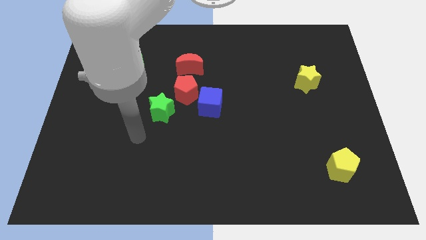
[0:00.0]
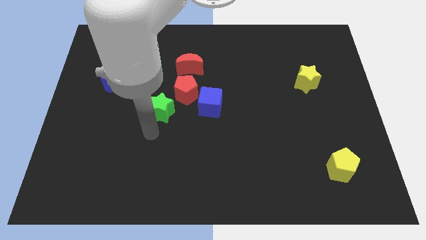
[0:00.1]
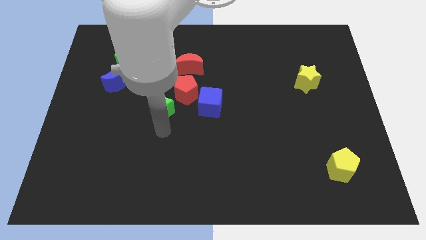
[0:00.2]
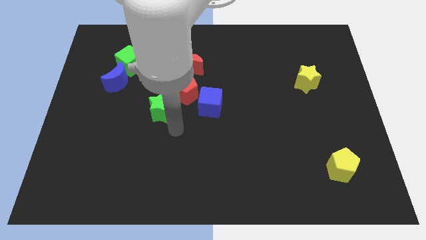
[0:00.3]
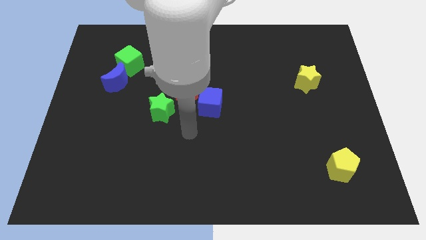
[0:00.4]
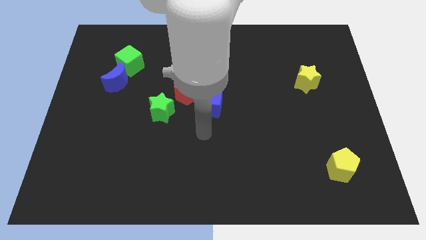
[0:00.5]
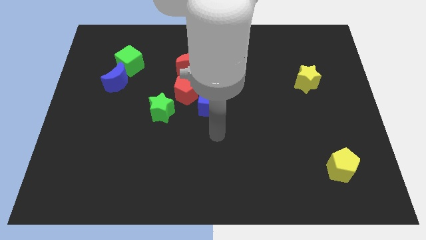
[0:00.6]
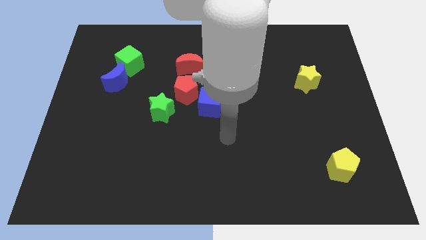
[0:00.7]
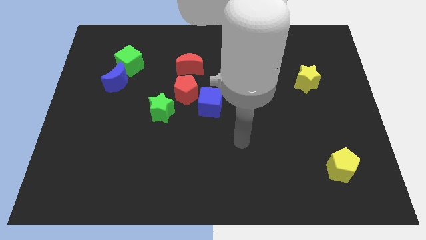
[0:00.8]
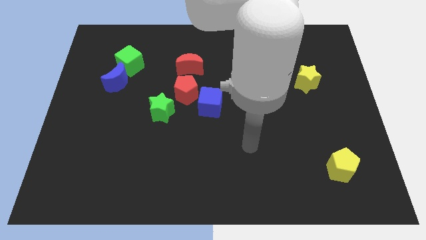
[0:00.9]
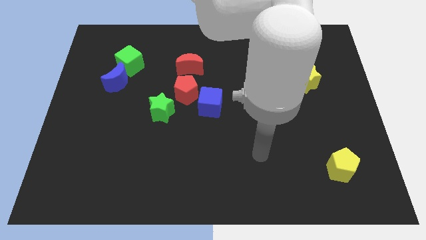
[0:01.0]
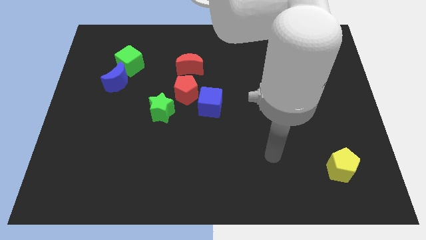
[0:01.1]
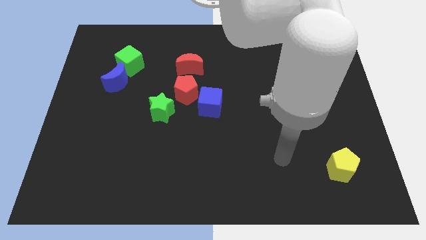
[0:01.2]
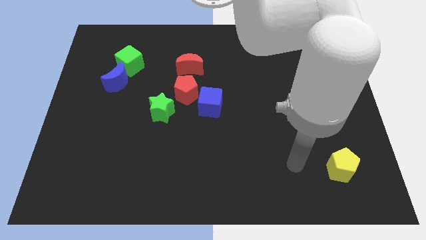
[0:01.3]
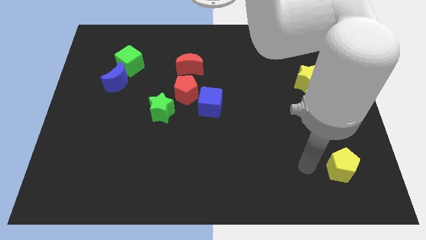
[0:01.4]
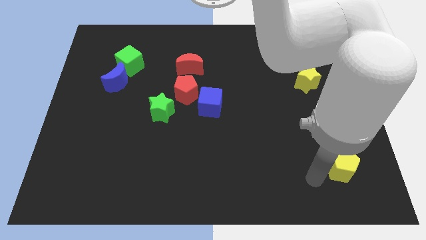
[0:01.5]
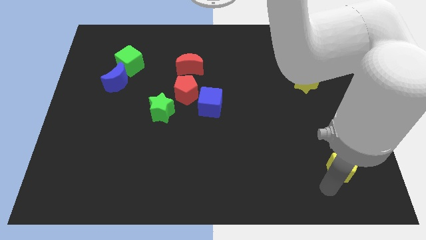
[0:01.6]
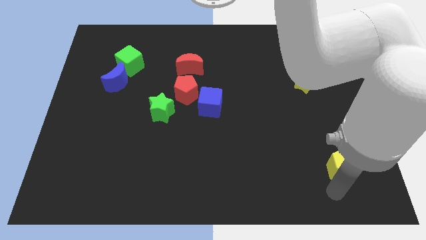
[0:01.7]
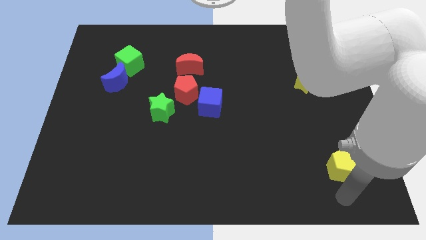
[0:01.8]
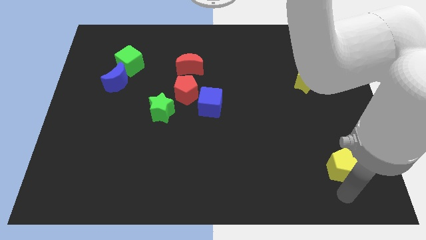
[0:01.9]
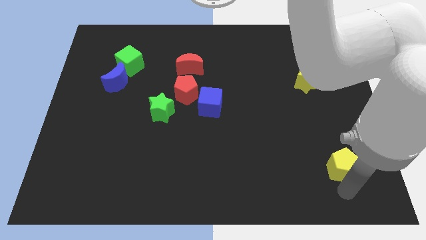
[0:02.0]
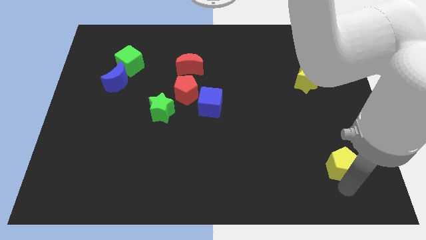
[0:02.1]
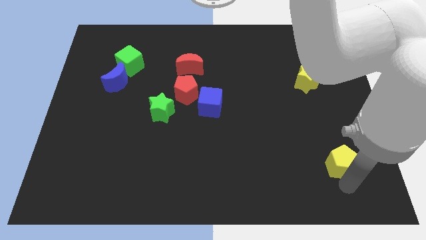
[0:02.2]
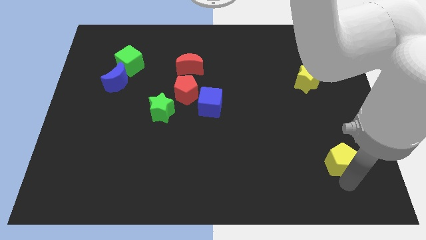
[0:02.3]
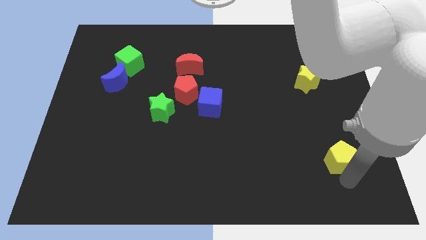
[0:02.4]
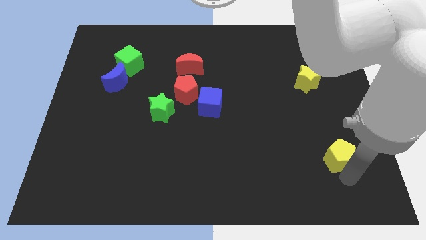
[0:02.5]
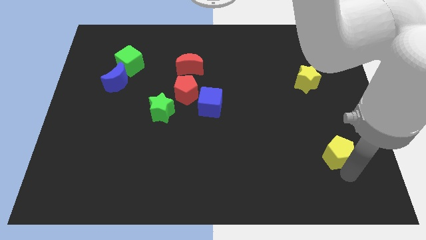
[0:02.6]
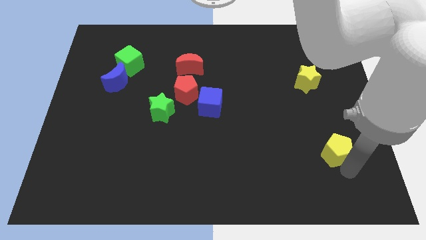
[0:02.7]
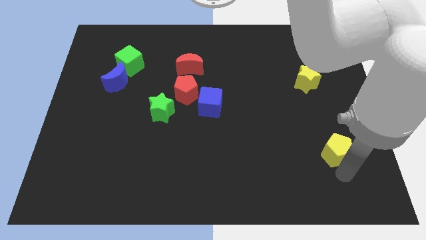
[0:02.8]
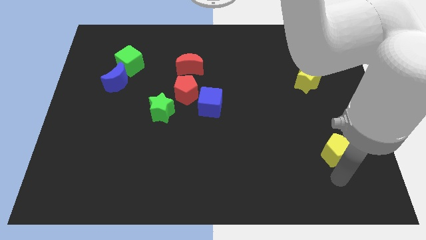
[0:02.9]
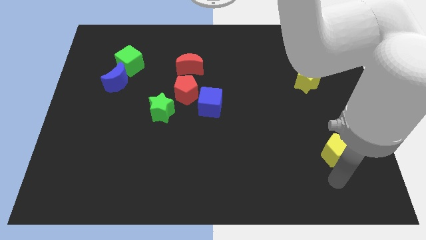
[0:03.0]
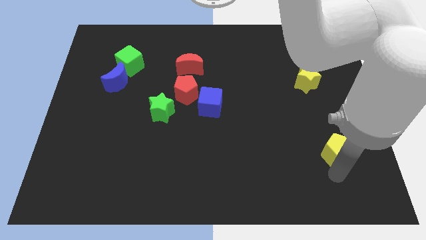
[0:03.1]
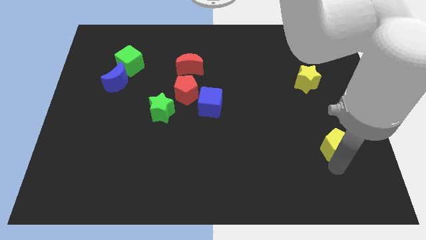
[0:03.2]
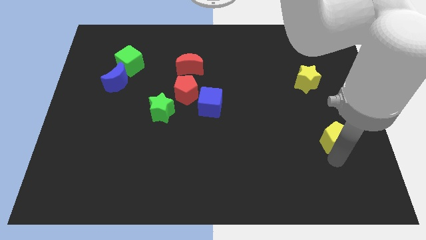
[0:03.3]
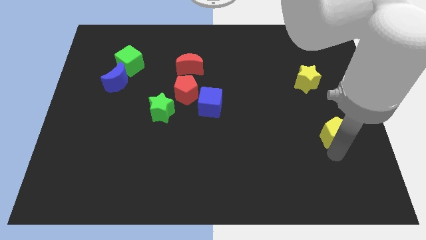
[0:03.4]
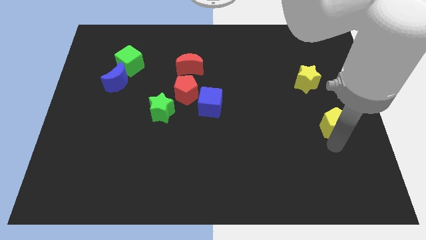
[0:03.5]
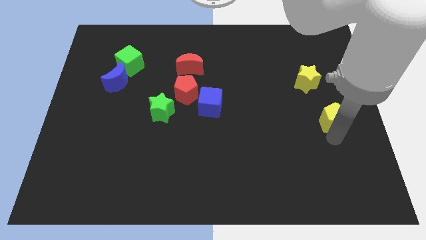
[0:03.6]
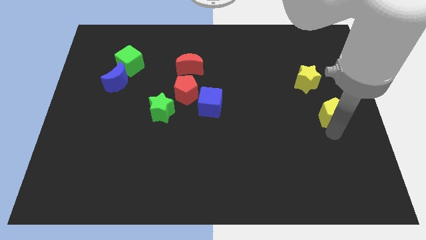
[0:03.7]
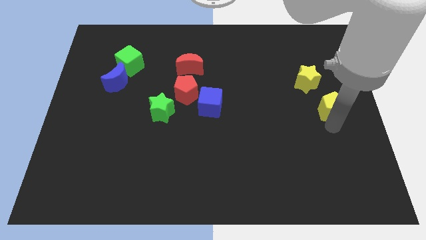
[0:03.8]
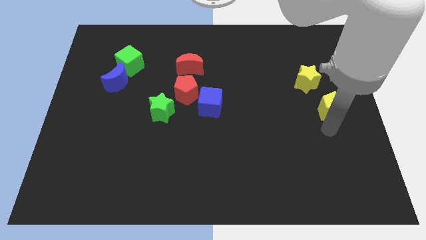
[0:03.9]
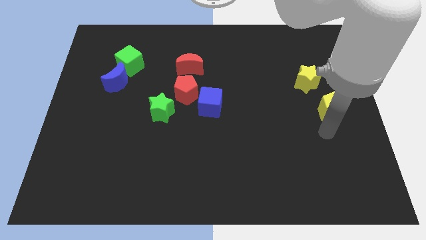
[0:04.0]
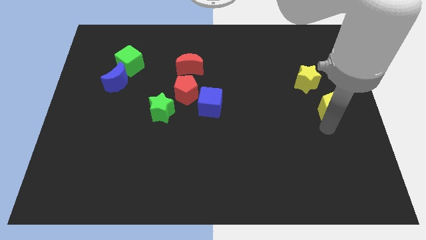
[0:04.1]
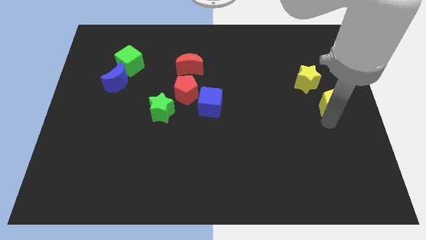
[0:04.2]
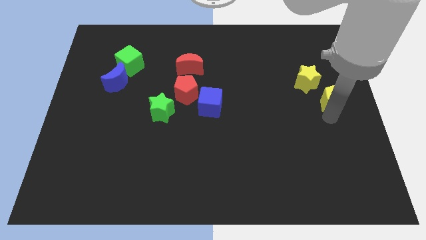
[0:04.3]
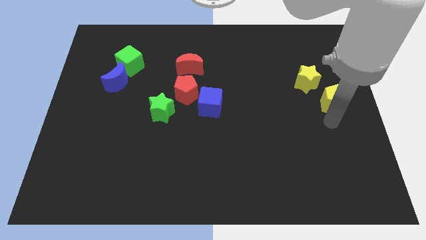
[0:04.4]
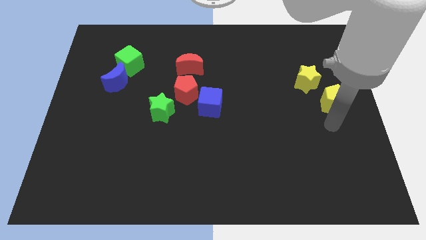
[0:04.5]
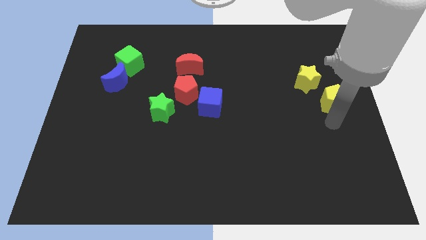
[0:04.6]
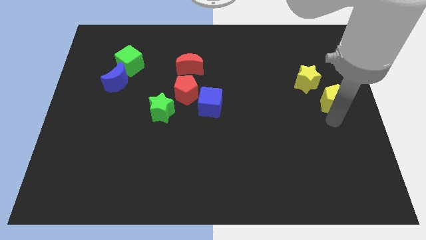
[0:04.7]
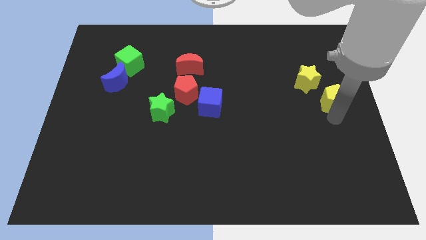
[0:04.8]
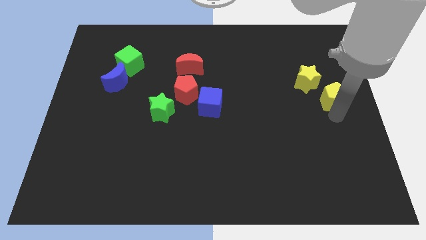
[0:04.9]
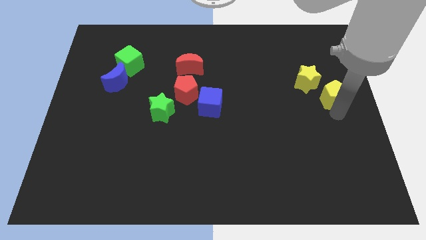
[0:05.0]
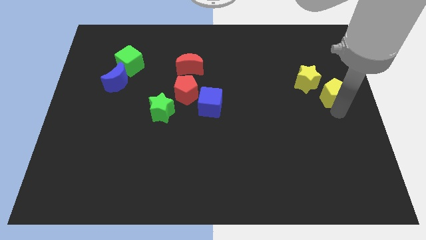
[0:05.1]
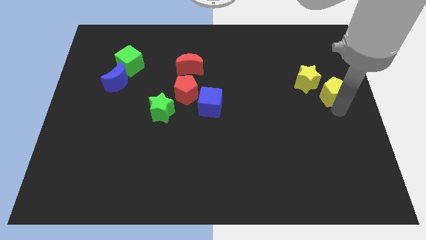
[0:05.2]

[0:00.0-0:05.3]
push the yellow pentagon upwards

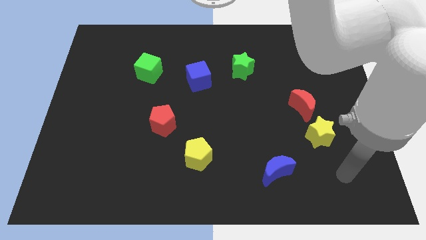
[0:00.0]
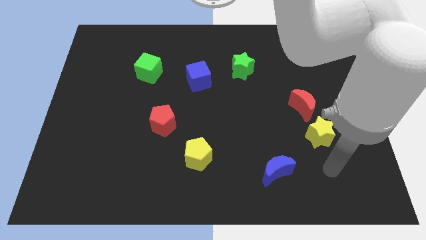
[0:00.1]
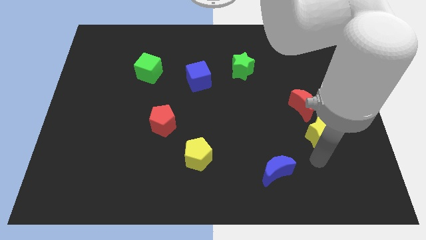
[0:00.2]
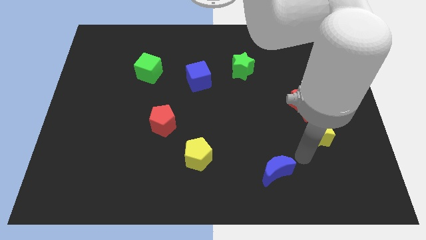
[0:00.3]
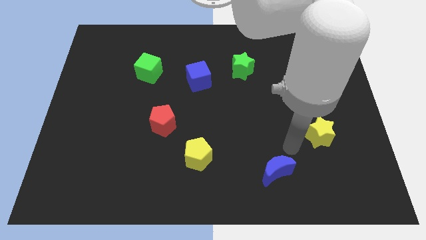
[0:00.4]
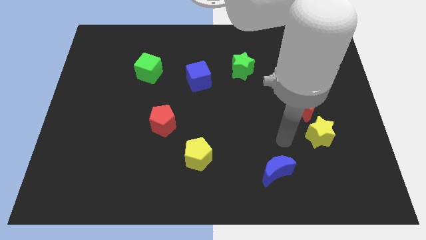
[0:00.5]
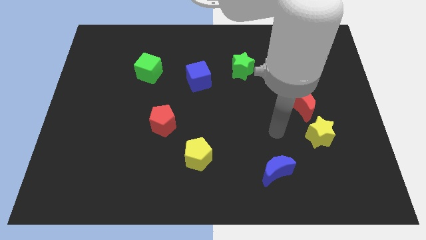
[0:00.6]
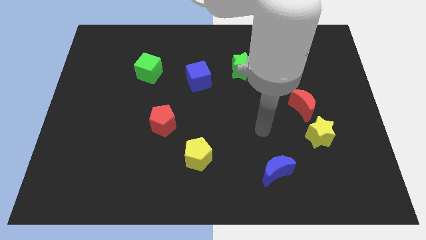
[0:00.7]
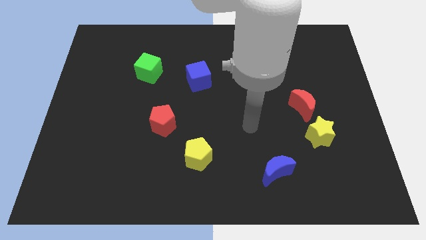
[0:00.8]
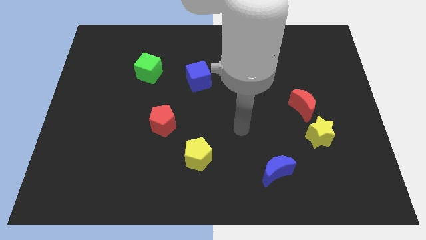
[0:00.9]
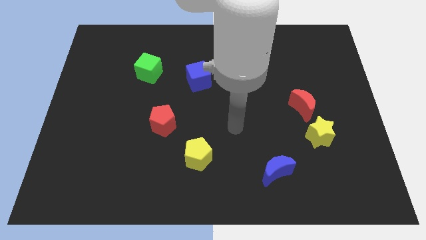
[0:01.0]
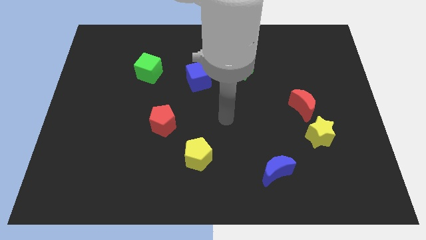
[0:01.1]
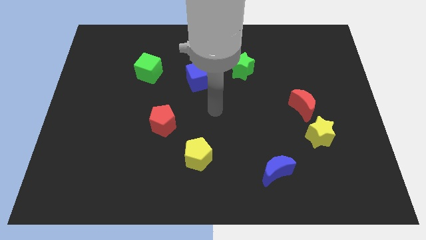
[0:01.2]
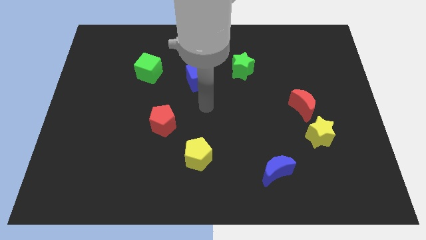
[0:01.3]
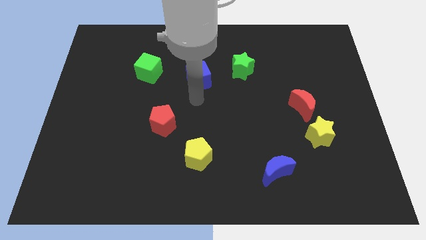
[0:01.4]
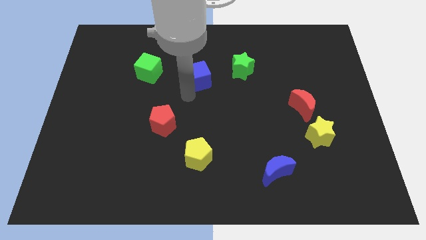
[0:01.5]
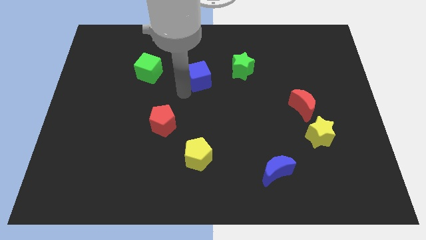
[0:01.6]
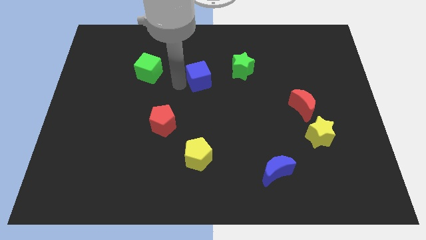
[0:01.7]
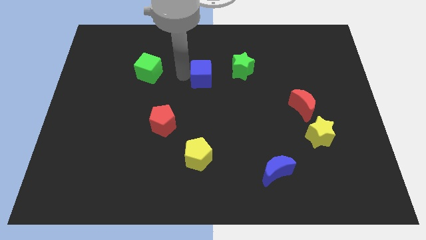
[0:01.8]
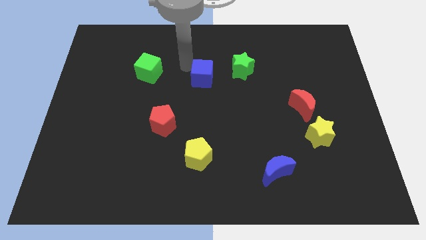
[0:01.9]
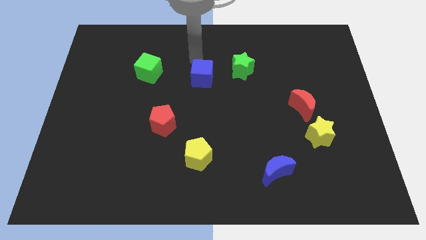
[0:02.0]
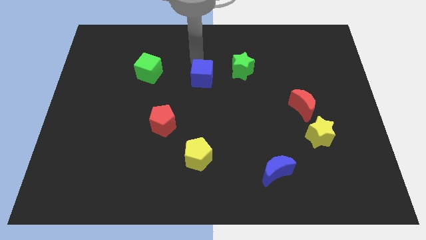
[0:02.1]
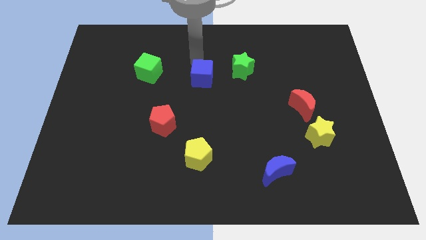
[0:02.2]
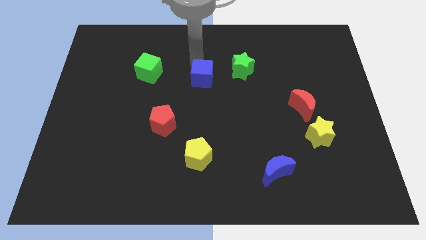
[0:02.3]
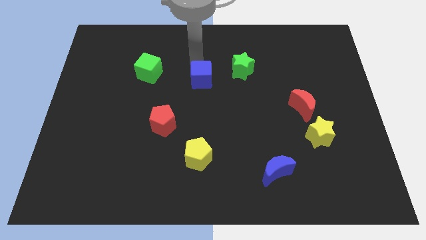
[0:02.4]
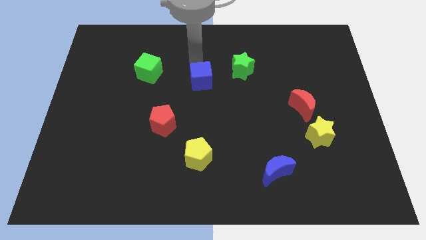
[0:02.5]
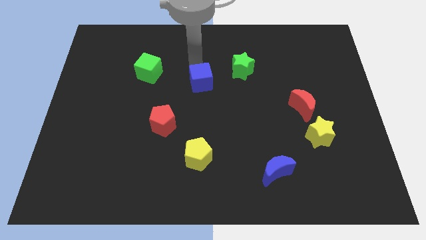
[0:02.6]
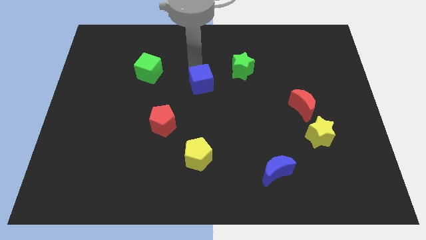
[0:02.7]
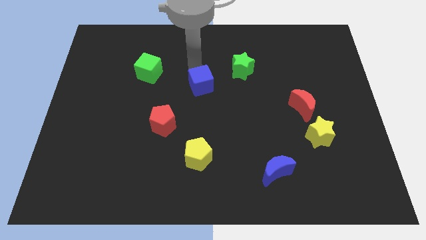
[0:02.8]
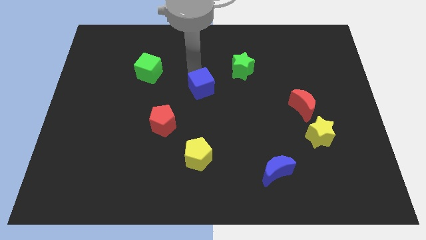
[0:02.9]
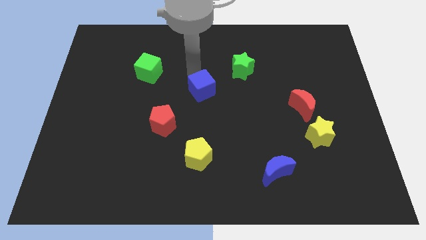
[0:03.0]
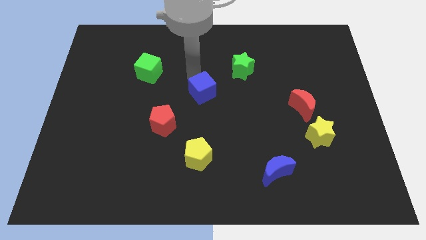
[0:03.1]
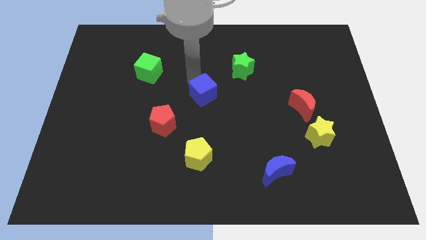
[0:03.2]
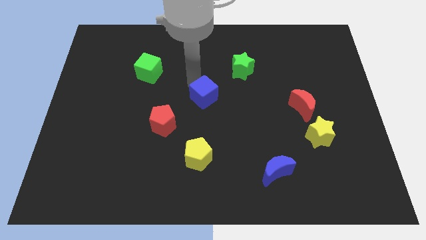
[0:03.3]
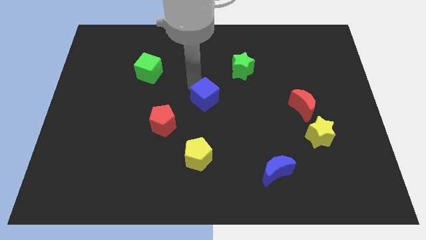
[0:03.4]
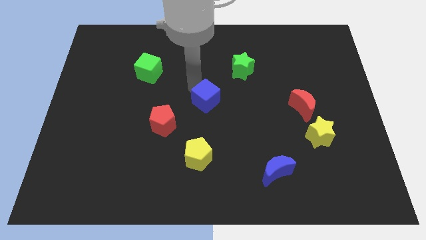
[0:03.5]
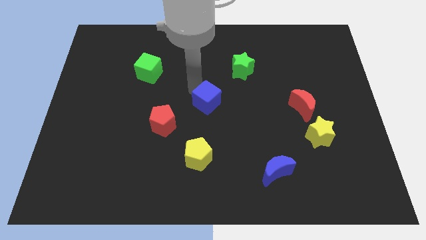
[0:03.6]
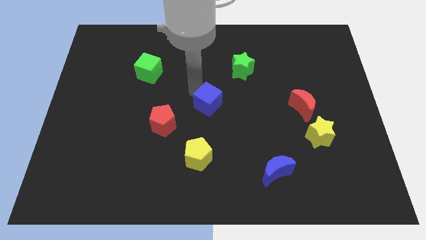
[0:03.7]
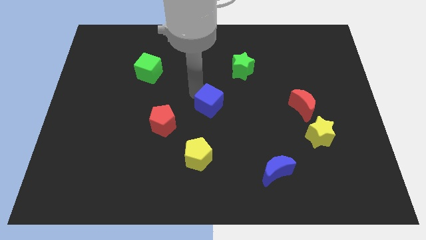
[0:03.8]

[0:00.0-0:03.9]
move the blue cube downwards and right diagonally a little bit
